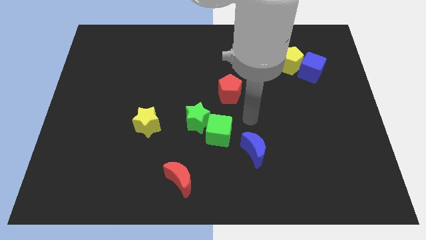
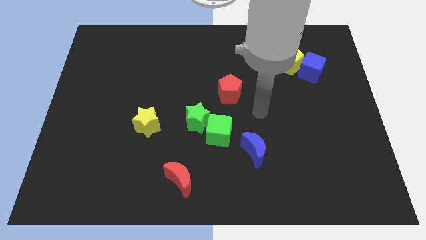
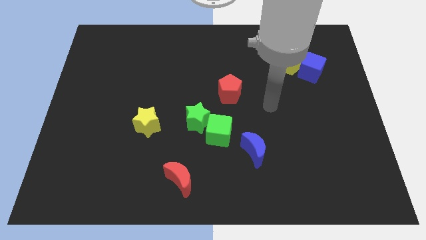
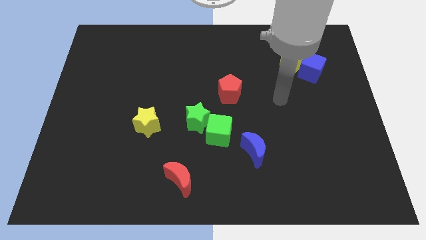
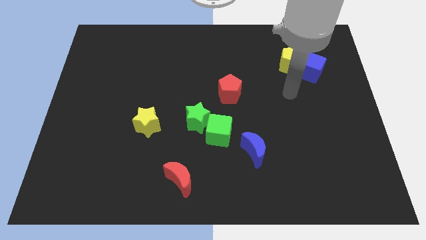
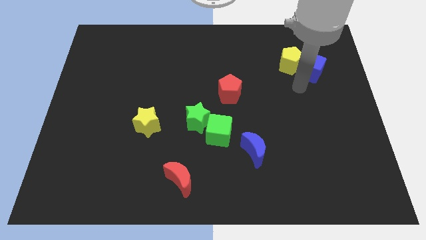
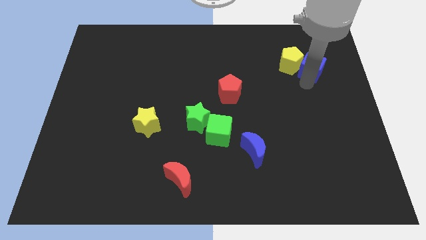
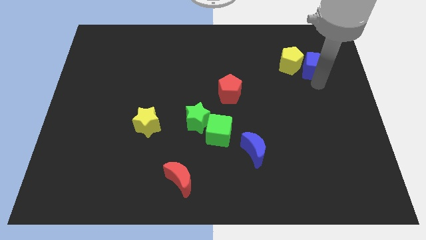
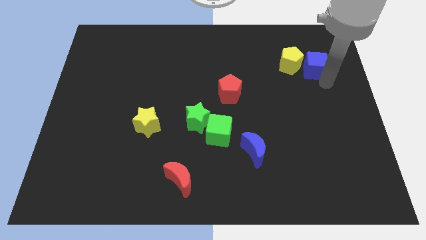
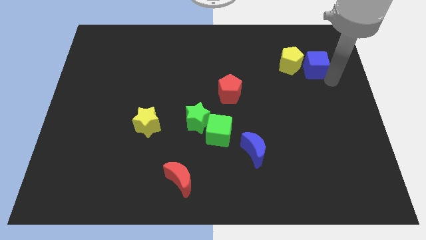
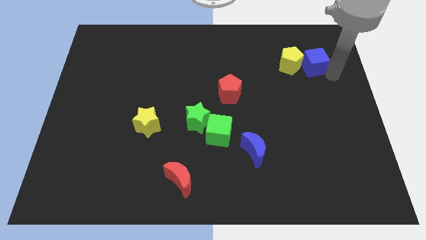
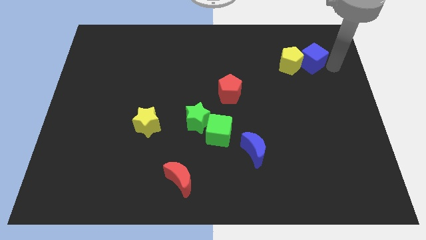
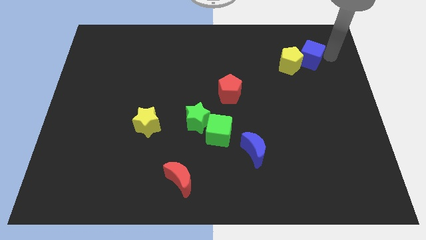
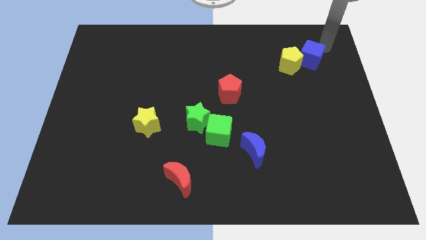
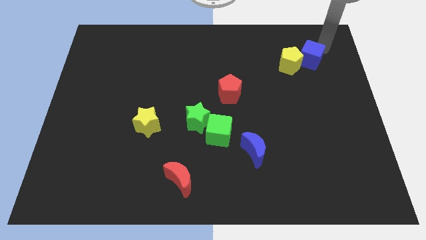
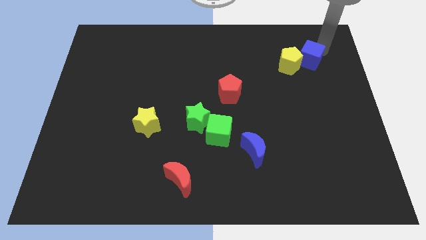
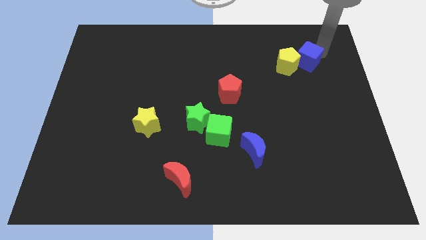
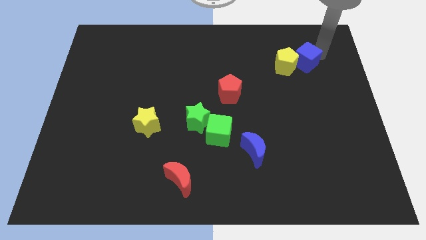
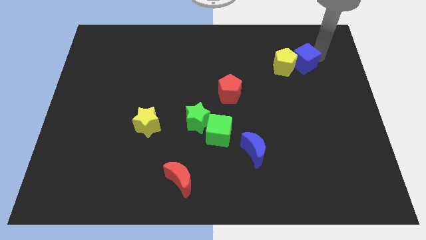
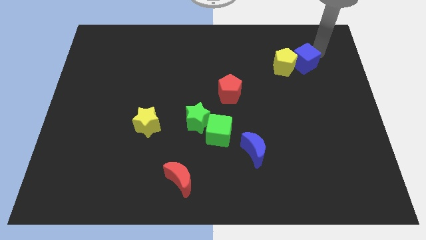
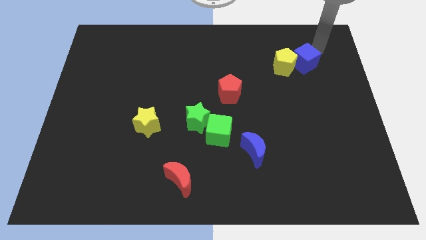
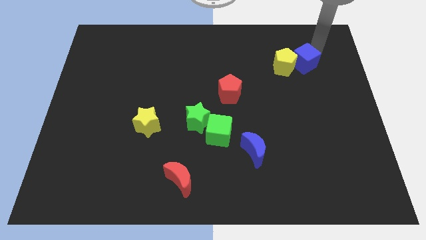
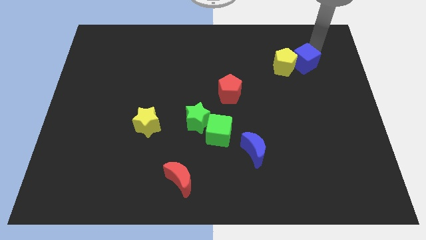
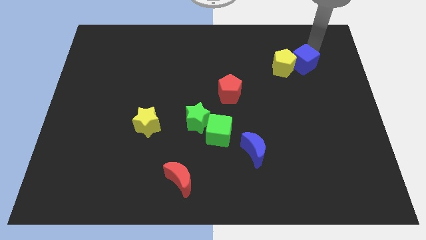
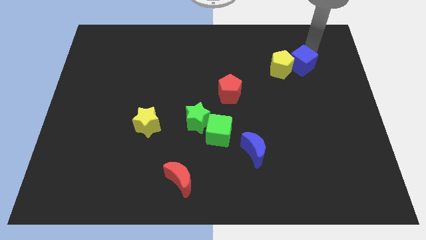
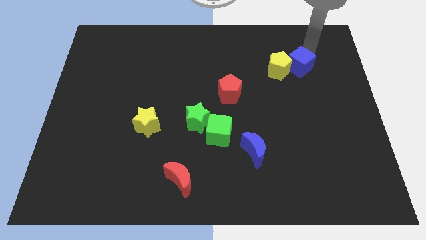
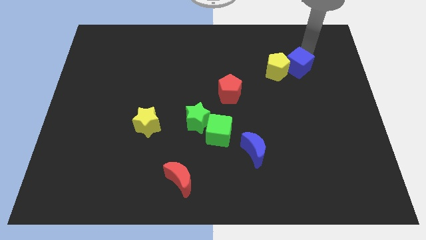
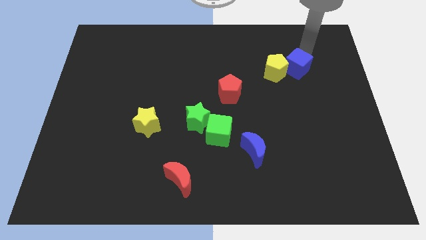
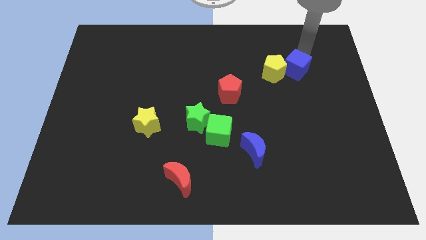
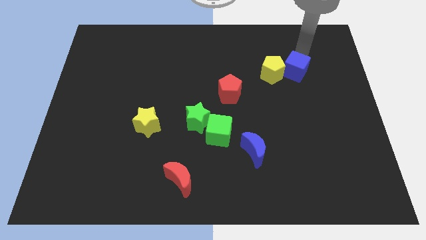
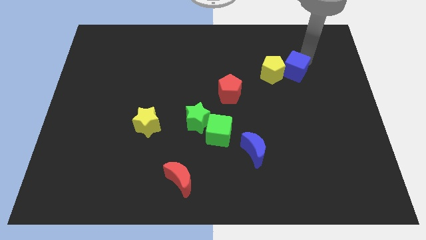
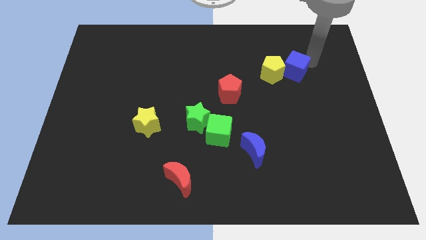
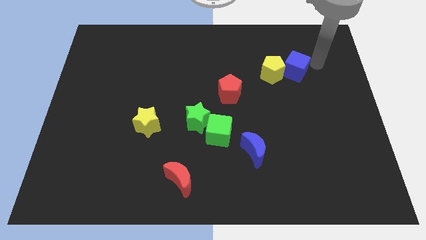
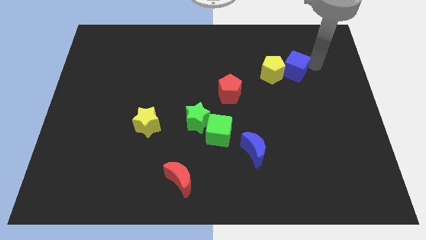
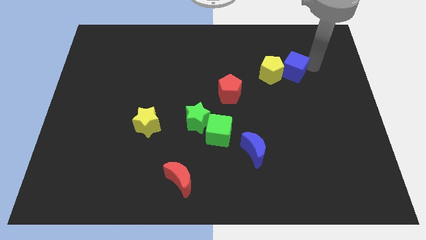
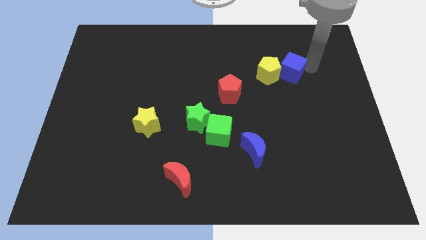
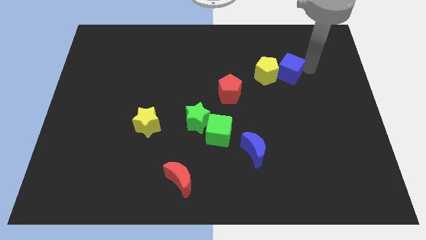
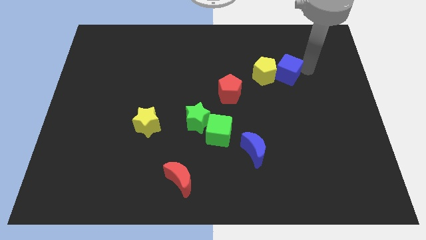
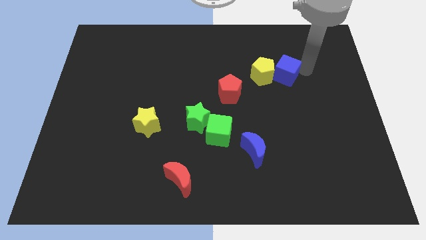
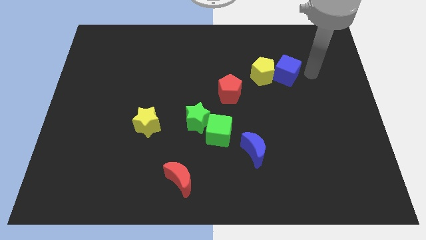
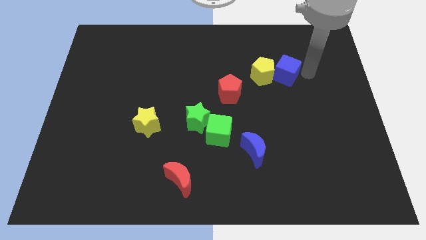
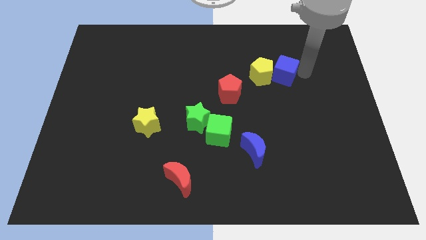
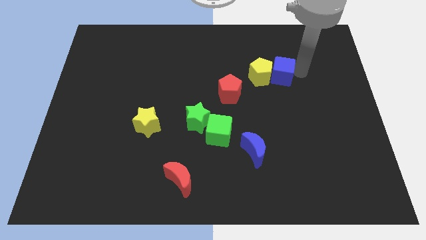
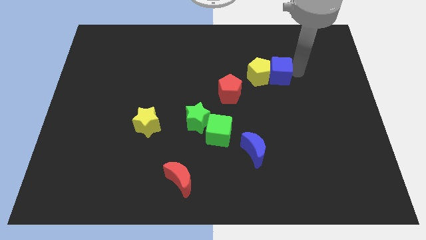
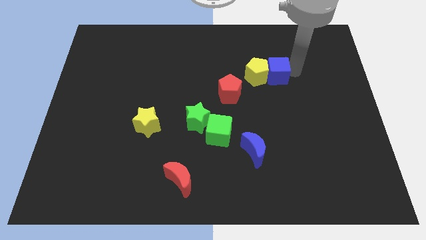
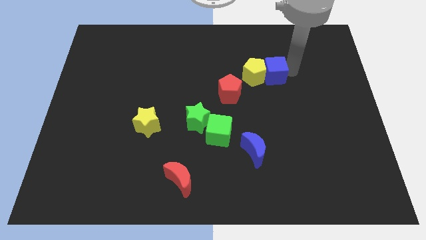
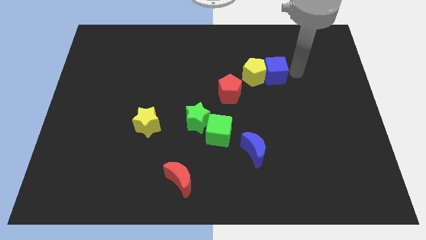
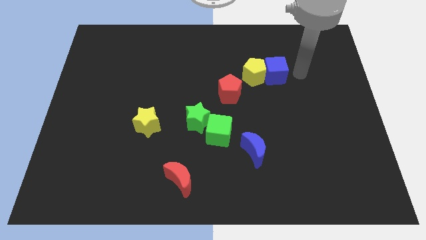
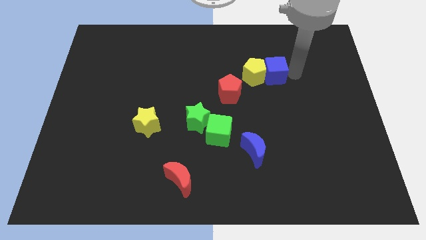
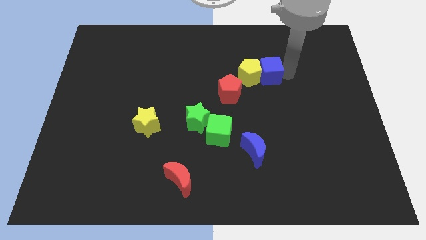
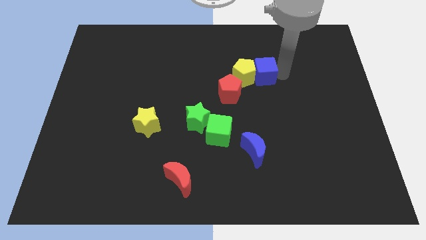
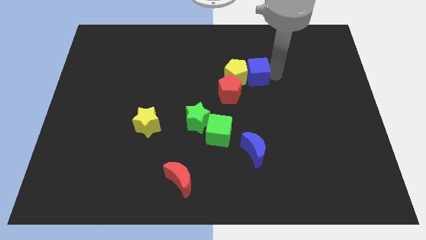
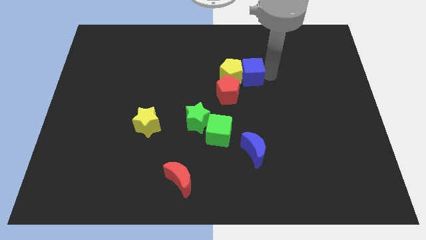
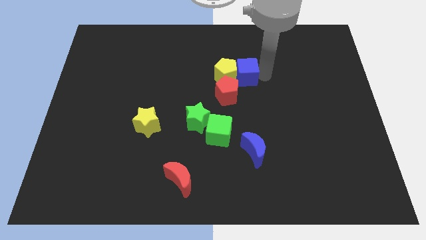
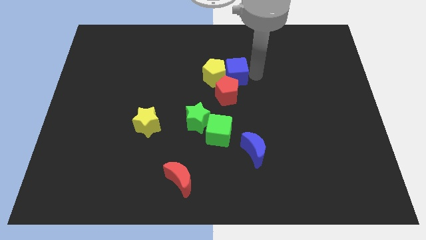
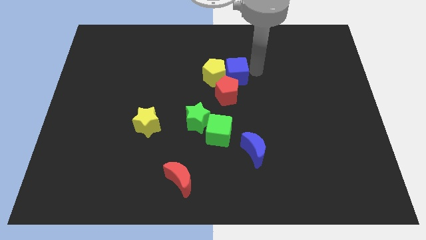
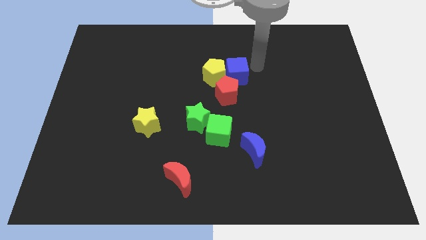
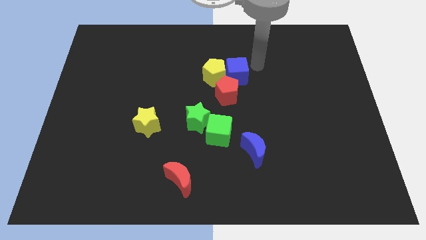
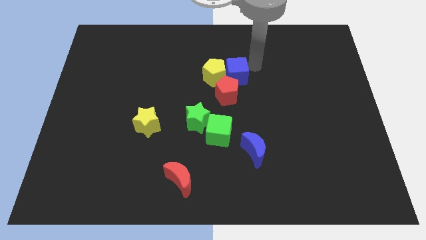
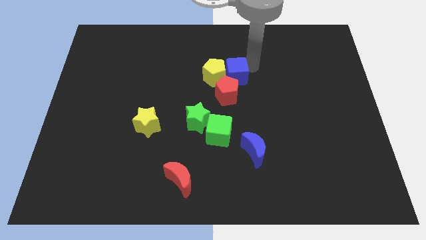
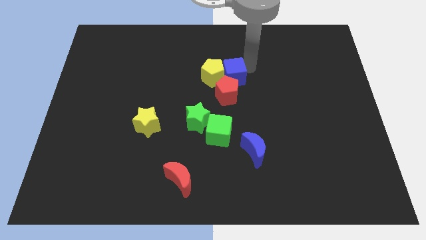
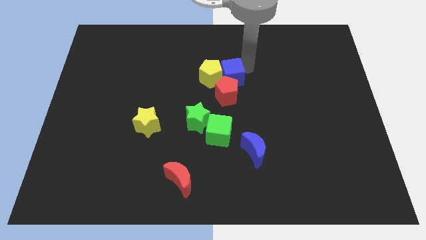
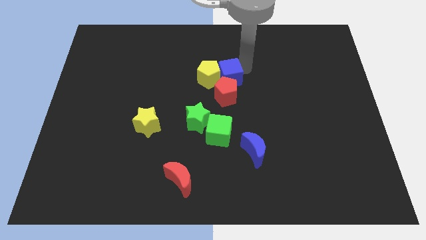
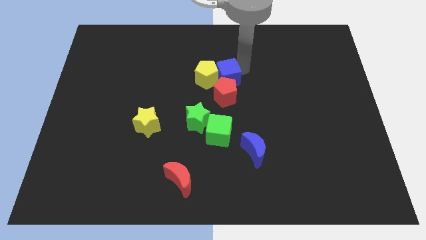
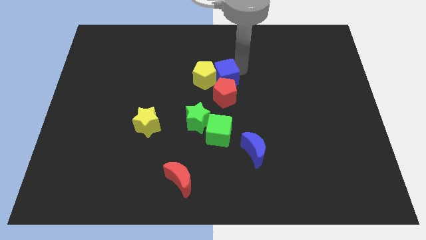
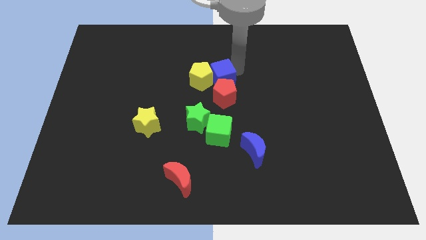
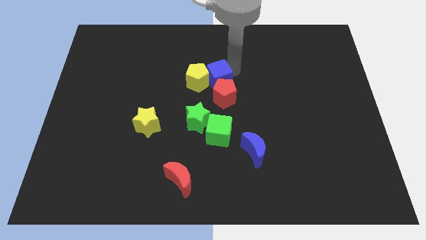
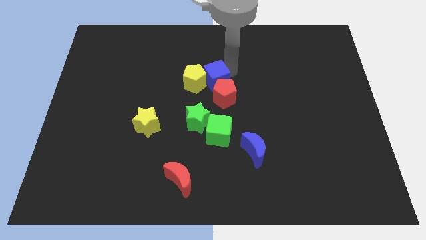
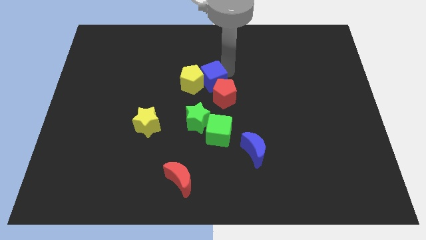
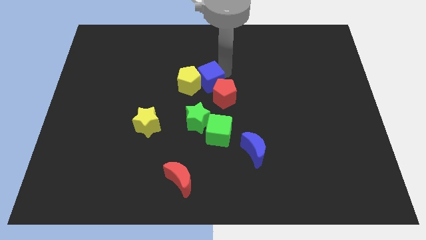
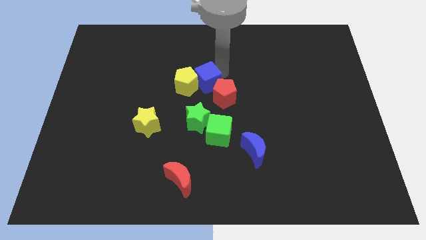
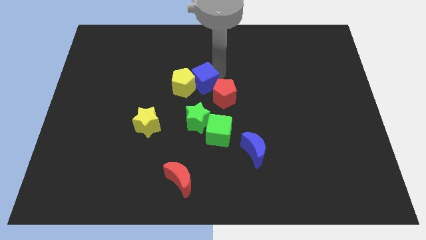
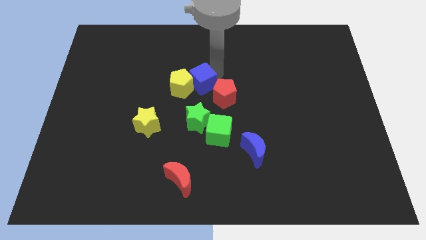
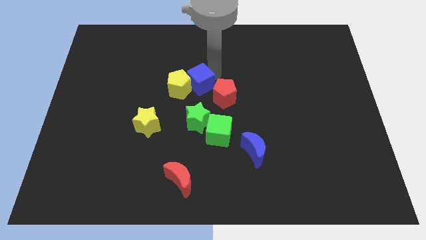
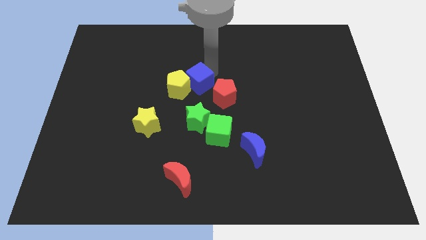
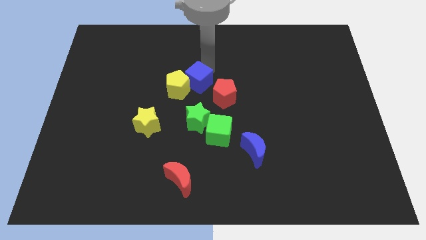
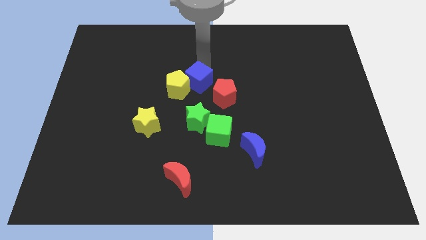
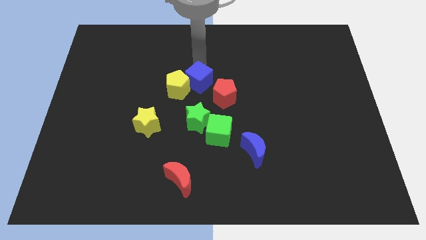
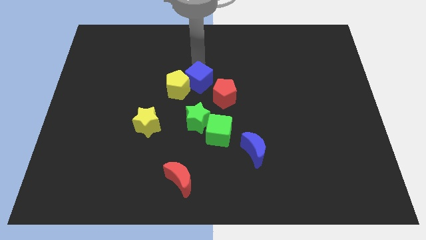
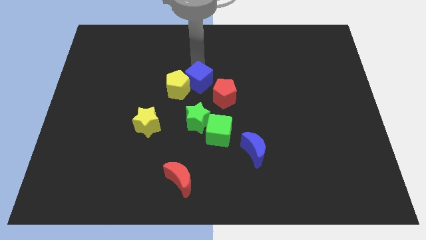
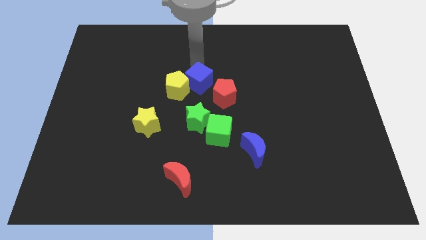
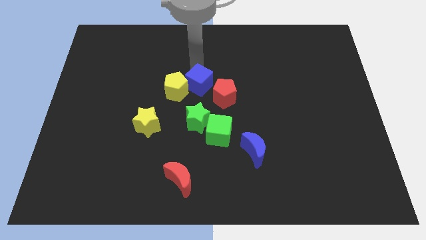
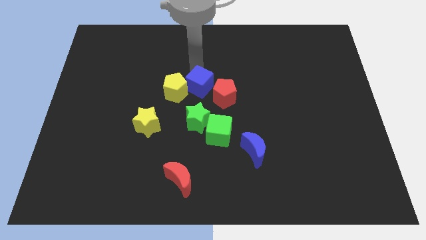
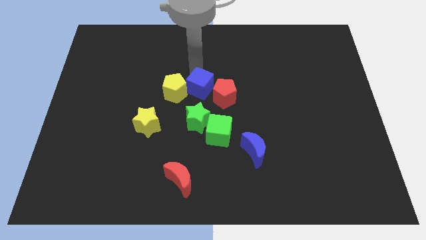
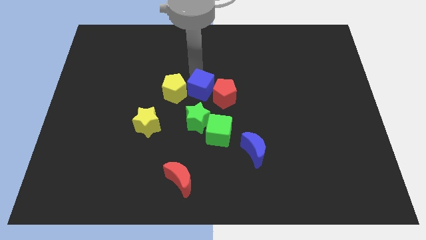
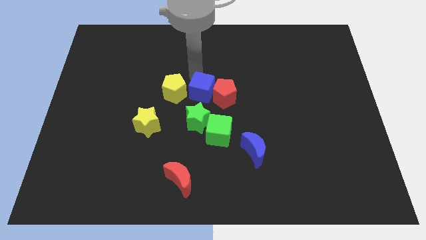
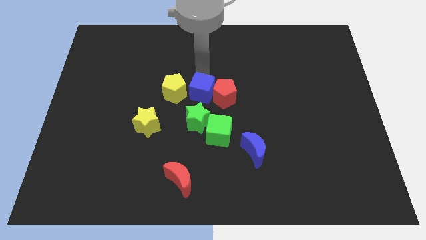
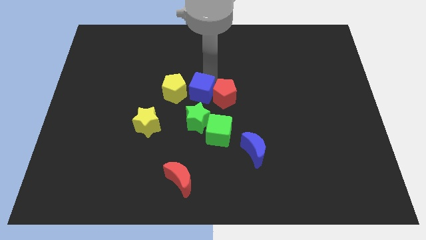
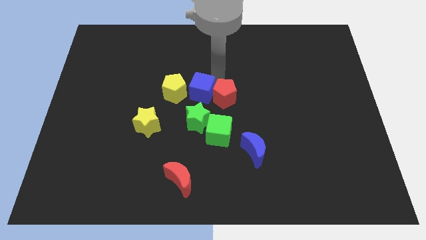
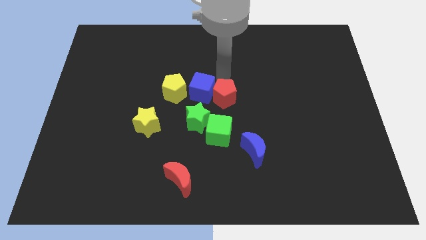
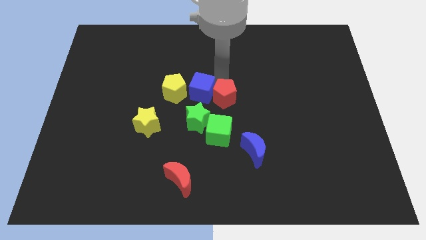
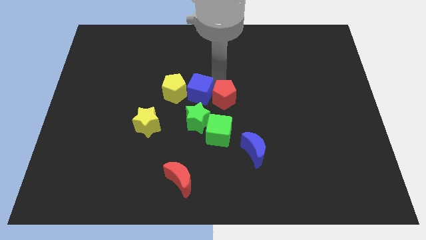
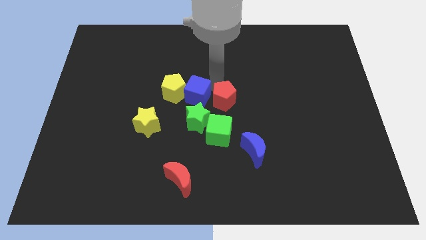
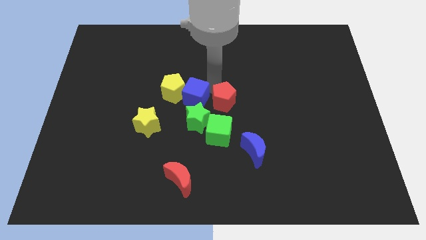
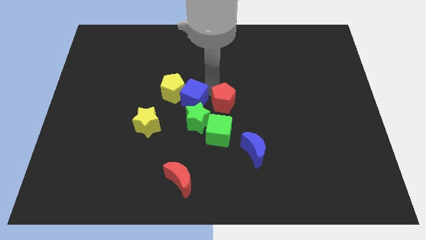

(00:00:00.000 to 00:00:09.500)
push the blue cube diagonally up and to the right of the yellow star
